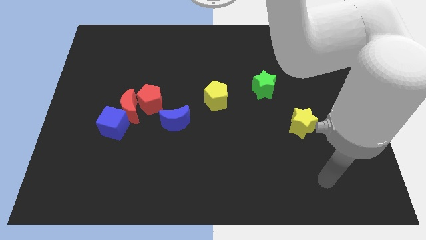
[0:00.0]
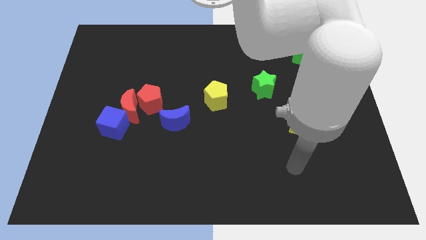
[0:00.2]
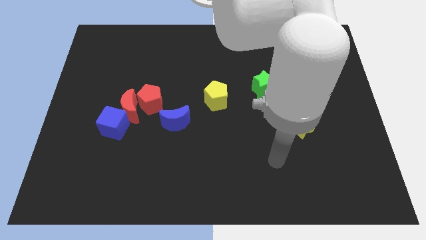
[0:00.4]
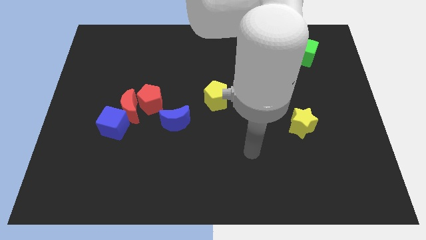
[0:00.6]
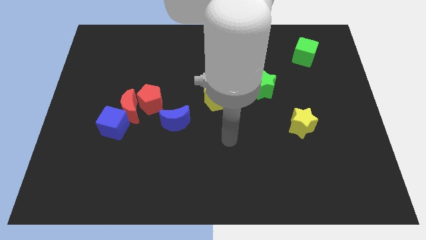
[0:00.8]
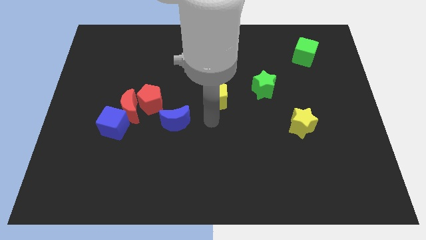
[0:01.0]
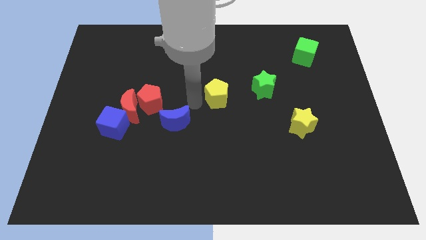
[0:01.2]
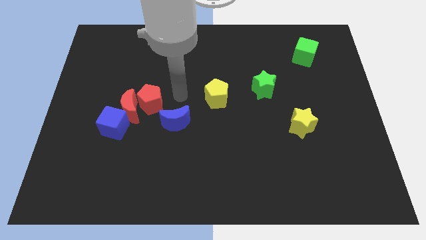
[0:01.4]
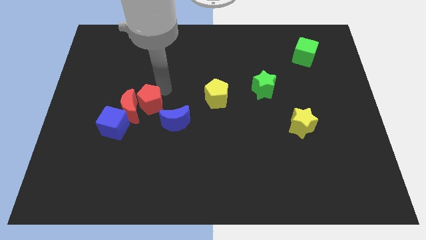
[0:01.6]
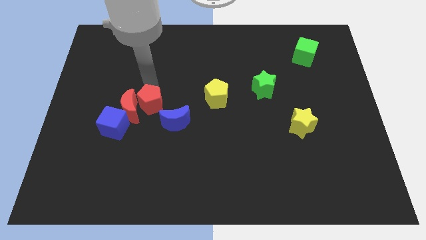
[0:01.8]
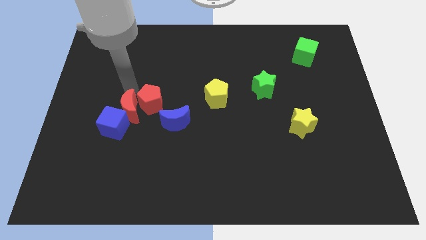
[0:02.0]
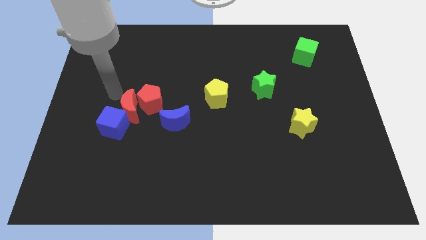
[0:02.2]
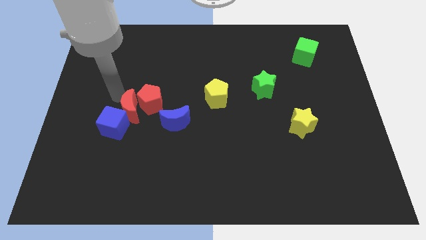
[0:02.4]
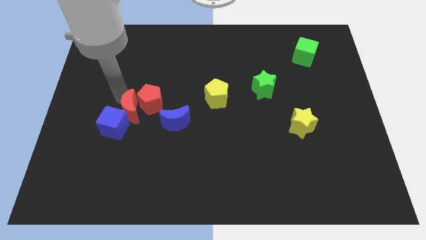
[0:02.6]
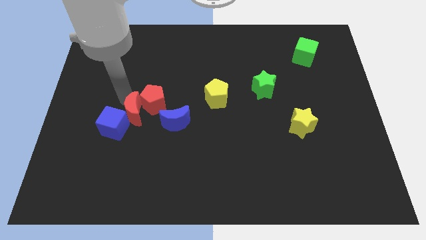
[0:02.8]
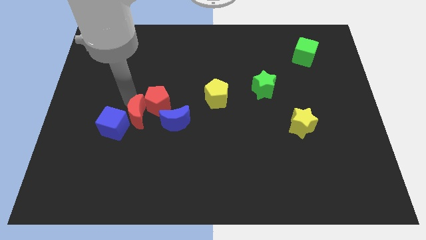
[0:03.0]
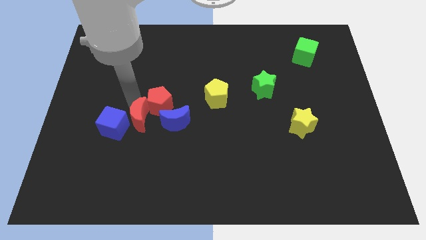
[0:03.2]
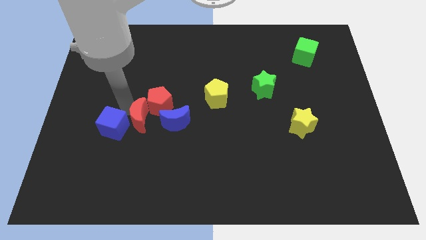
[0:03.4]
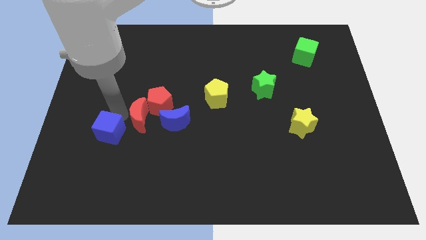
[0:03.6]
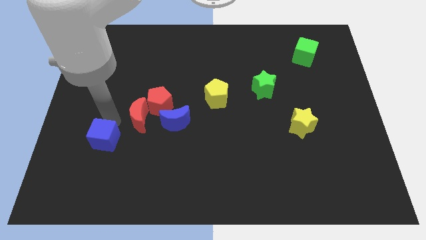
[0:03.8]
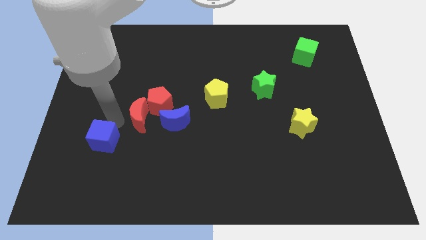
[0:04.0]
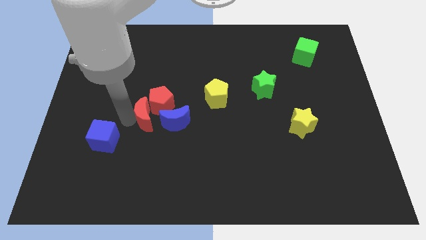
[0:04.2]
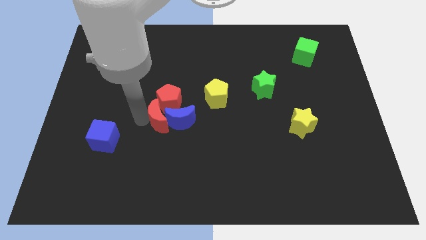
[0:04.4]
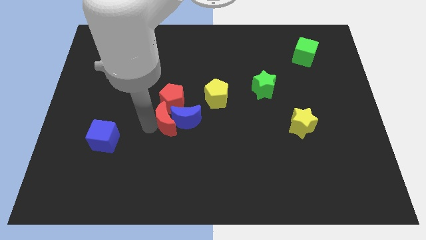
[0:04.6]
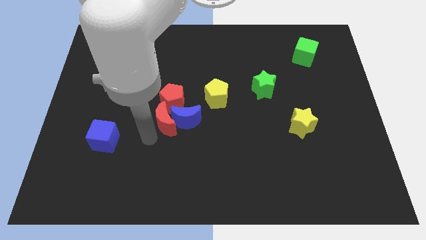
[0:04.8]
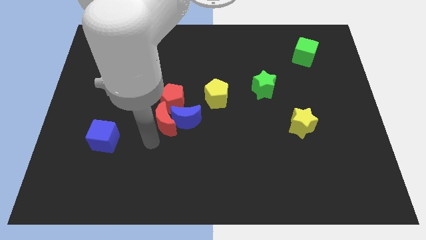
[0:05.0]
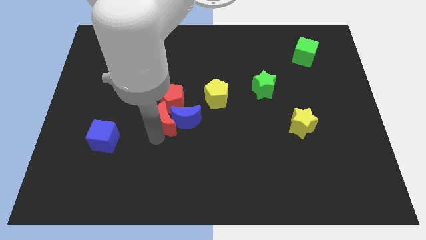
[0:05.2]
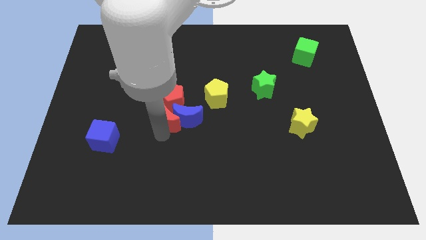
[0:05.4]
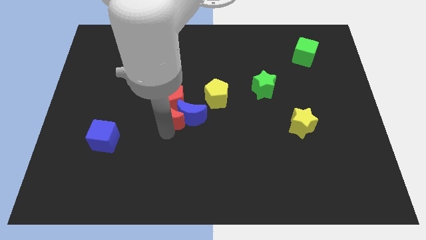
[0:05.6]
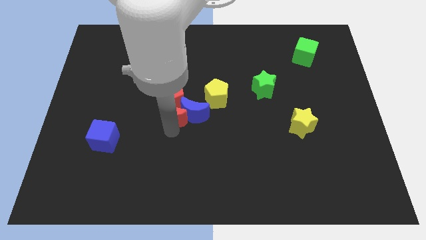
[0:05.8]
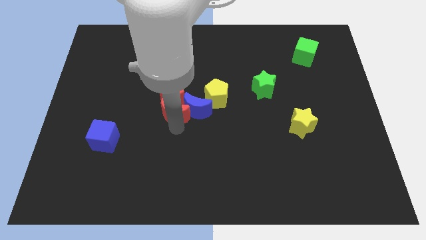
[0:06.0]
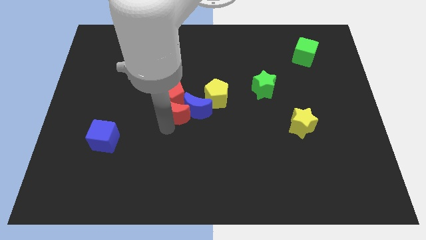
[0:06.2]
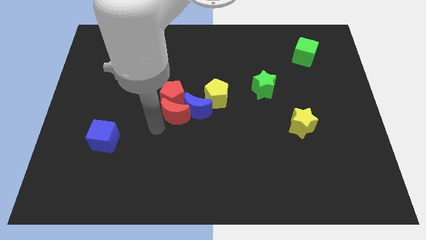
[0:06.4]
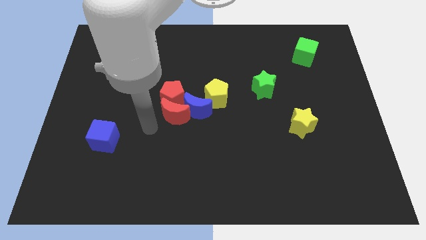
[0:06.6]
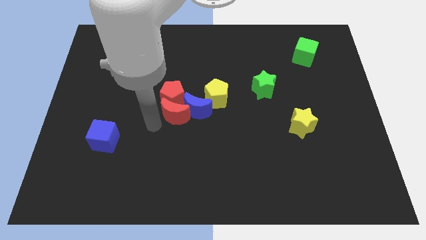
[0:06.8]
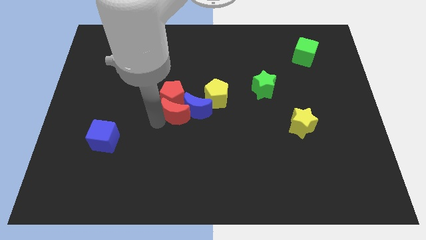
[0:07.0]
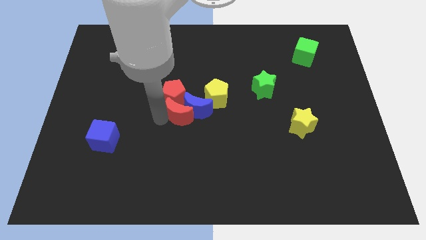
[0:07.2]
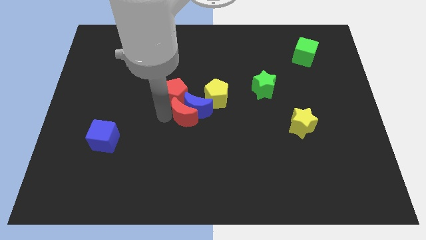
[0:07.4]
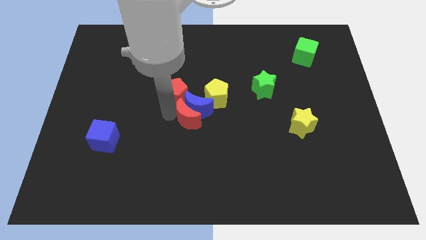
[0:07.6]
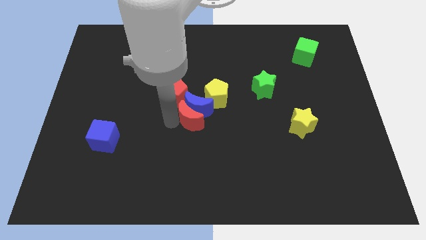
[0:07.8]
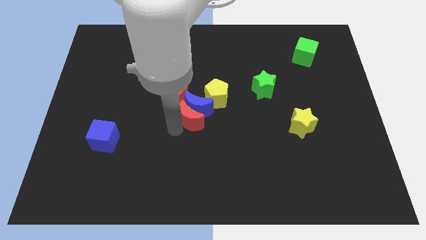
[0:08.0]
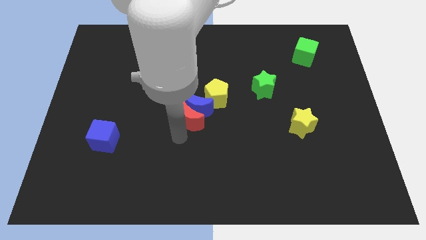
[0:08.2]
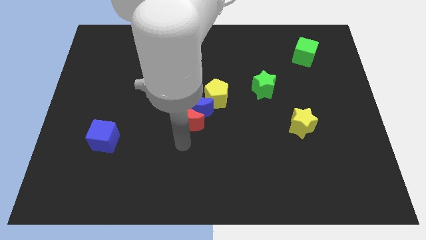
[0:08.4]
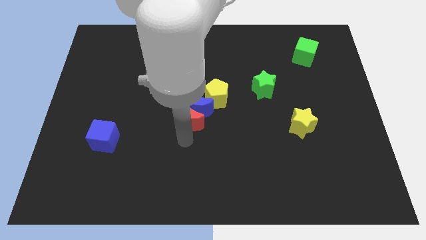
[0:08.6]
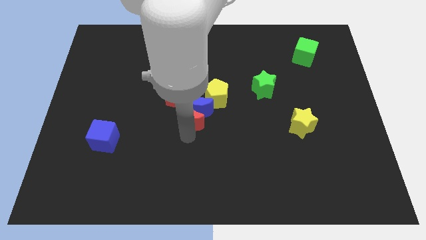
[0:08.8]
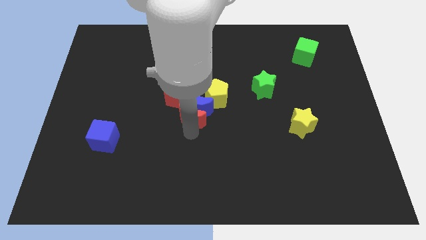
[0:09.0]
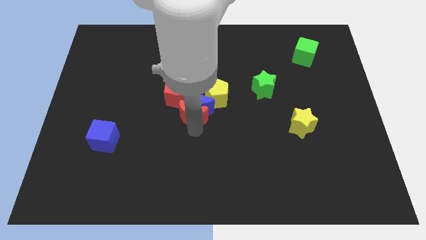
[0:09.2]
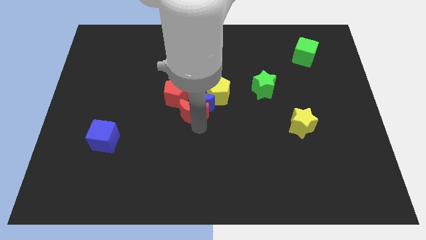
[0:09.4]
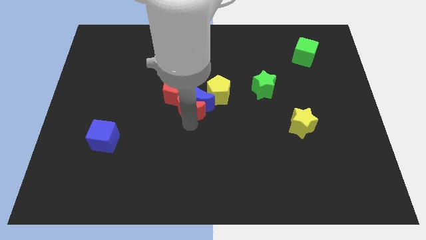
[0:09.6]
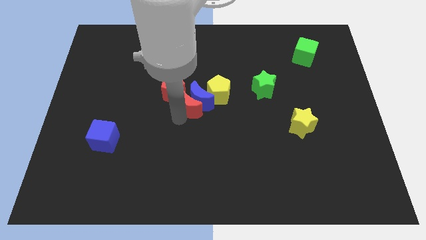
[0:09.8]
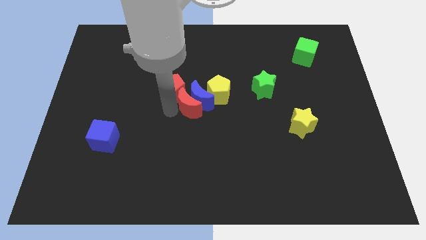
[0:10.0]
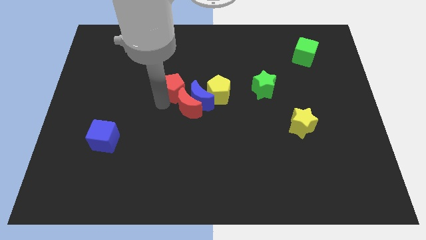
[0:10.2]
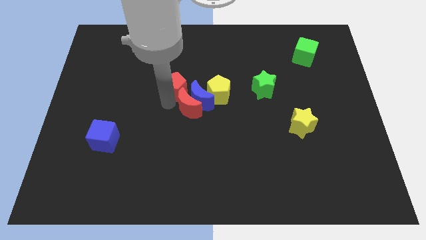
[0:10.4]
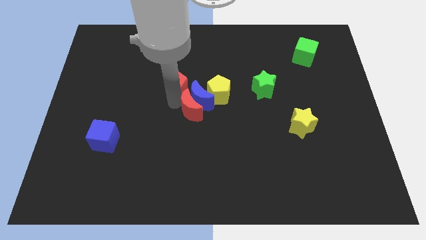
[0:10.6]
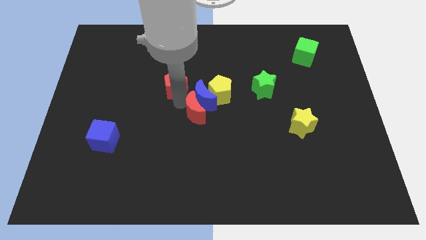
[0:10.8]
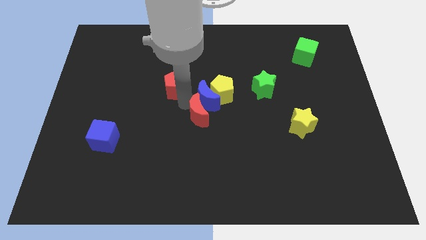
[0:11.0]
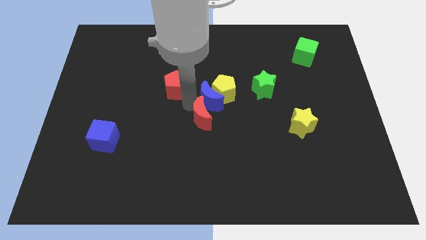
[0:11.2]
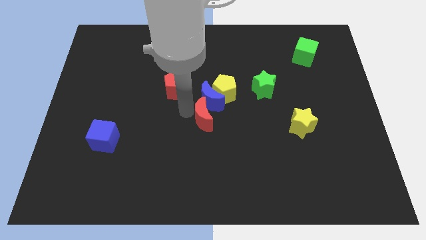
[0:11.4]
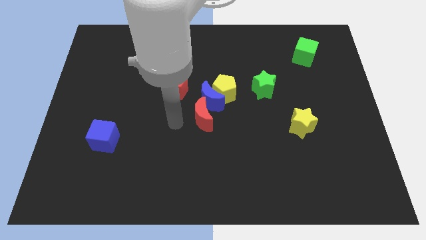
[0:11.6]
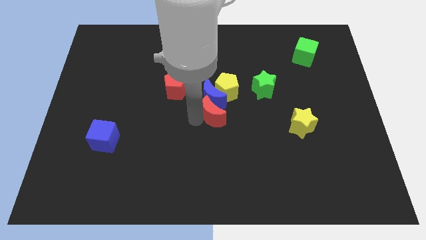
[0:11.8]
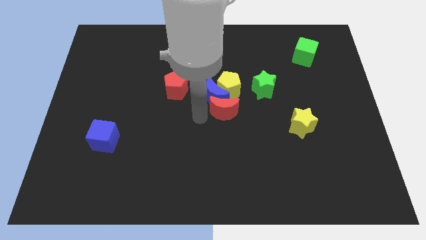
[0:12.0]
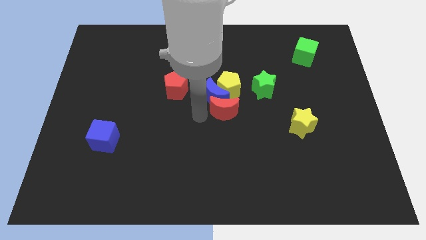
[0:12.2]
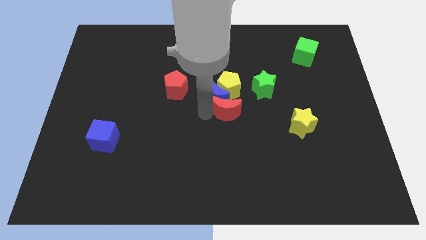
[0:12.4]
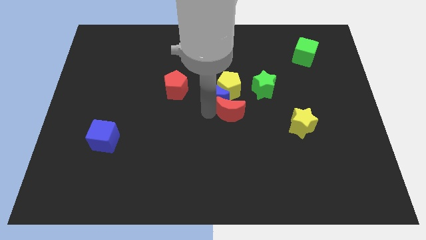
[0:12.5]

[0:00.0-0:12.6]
put the red moon to the bottom right of the yellow pentagon
